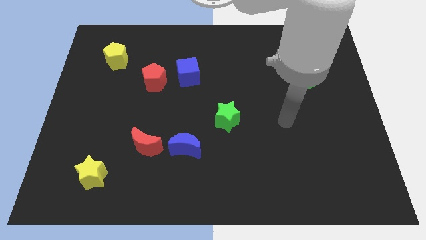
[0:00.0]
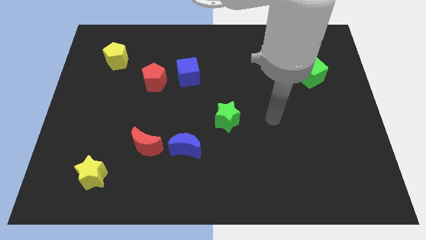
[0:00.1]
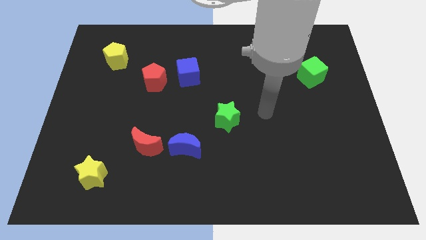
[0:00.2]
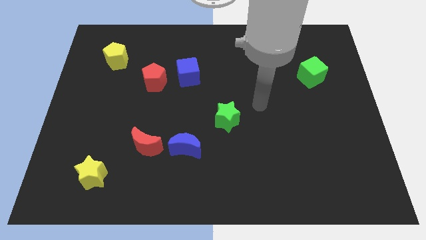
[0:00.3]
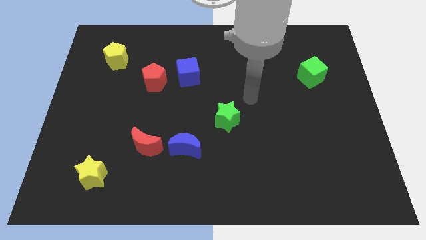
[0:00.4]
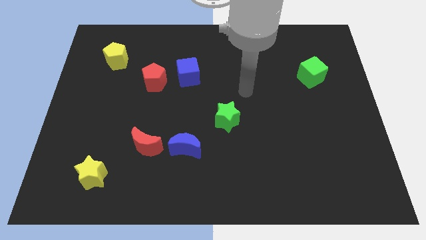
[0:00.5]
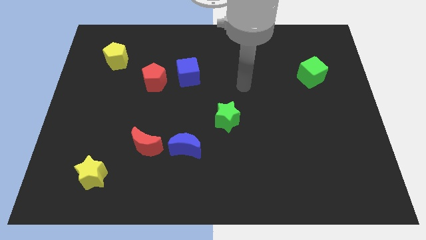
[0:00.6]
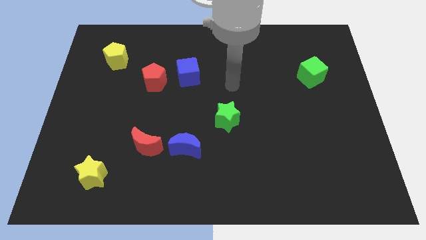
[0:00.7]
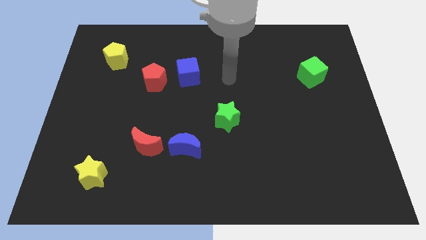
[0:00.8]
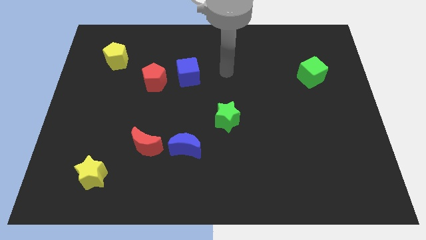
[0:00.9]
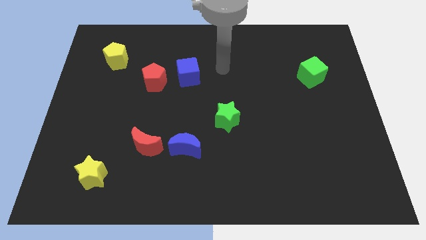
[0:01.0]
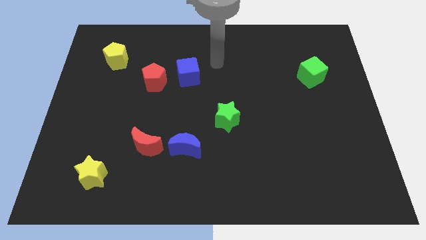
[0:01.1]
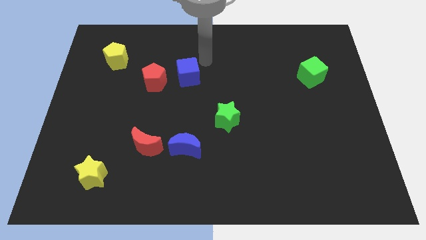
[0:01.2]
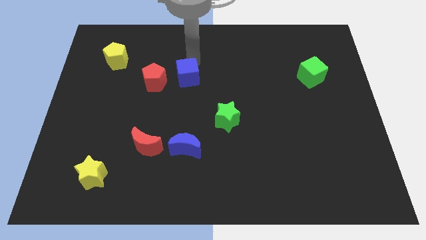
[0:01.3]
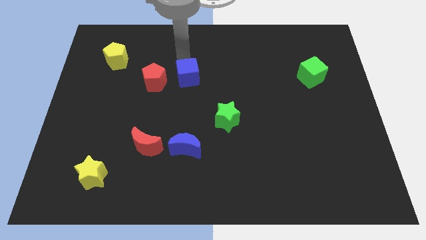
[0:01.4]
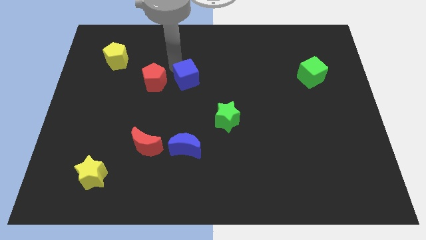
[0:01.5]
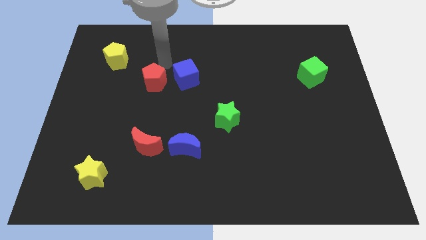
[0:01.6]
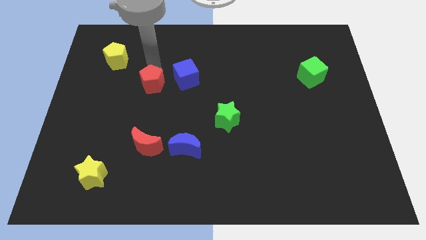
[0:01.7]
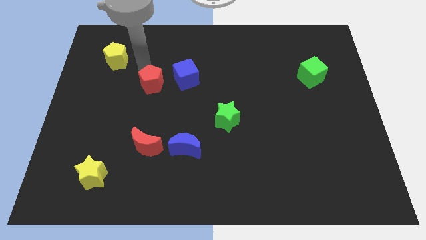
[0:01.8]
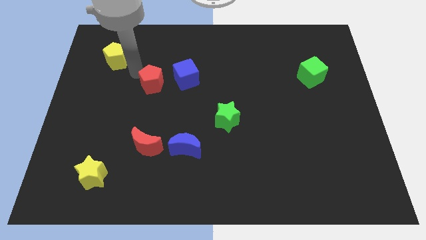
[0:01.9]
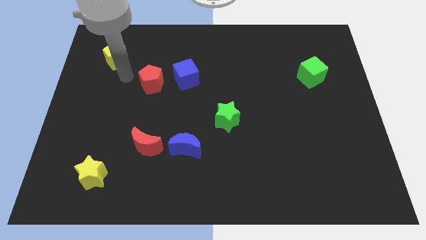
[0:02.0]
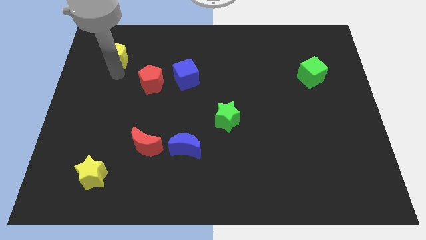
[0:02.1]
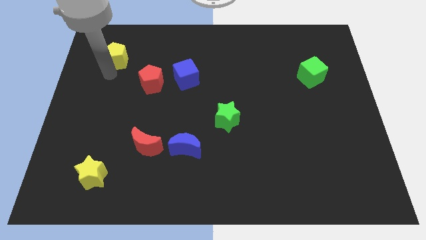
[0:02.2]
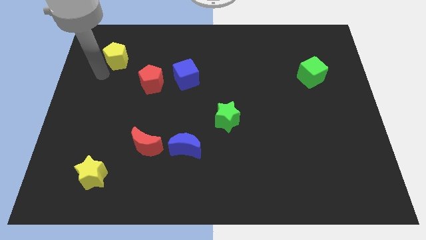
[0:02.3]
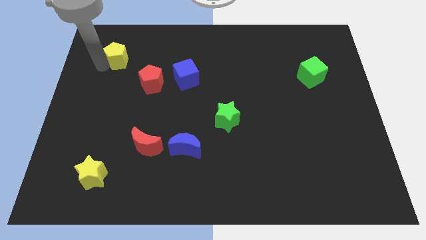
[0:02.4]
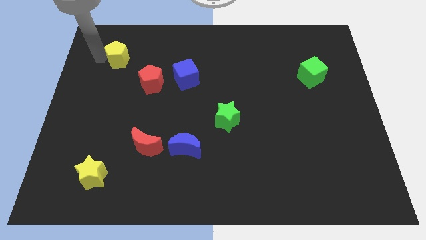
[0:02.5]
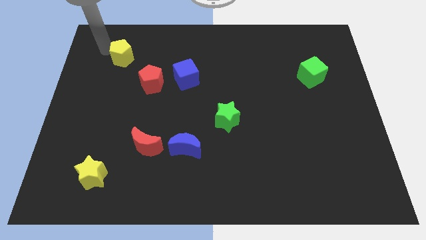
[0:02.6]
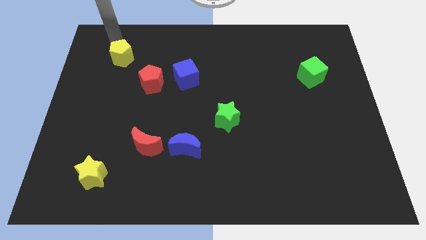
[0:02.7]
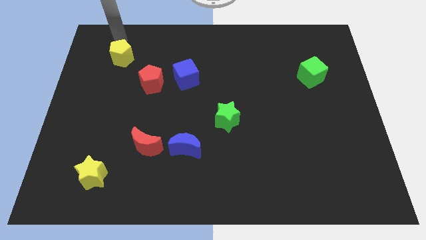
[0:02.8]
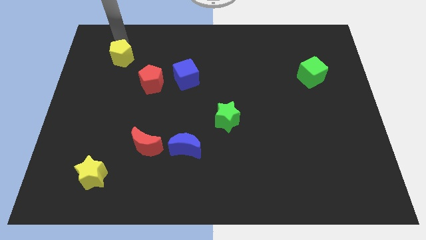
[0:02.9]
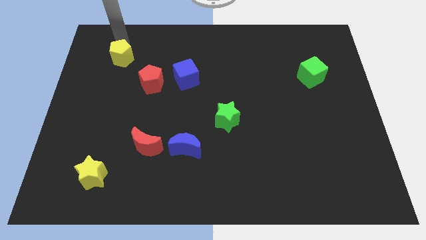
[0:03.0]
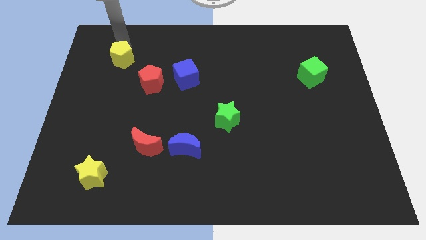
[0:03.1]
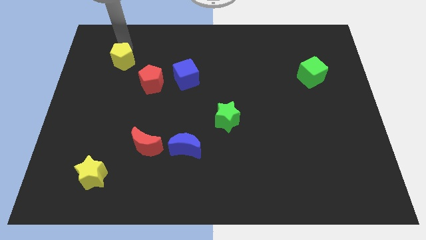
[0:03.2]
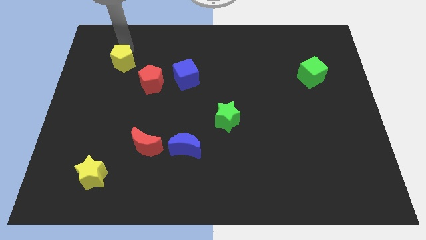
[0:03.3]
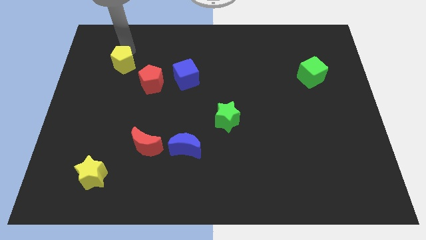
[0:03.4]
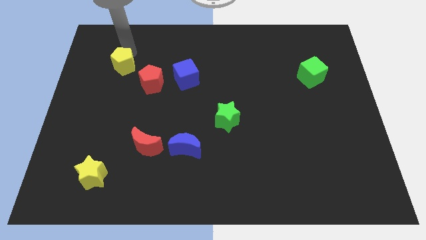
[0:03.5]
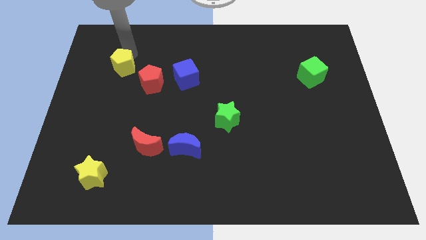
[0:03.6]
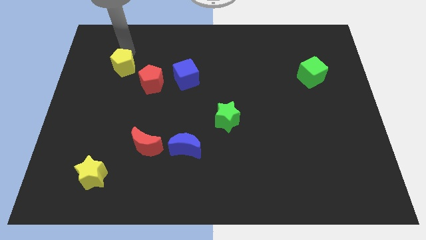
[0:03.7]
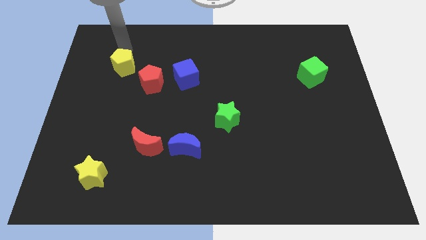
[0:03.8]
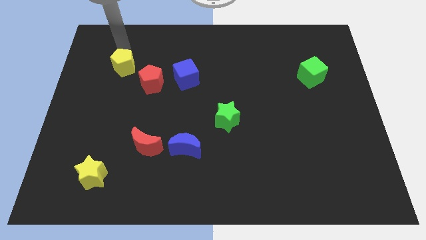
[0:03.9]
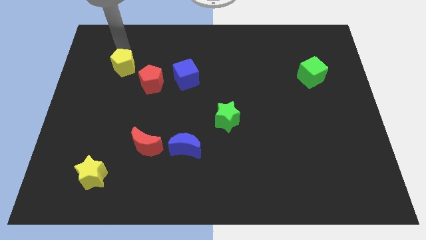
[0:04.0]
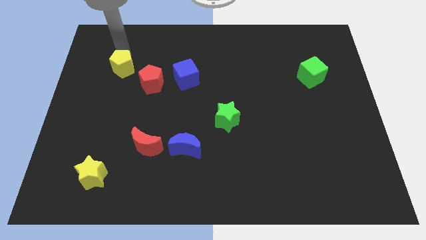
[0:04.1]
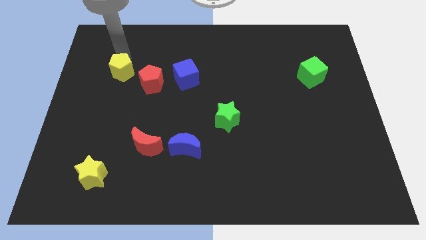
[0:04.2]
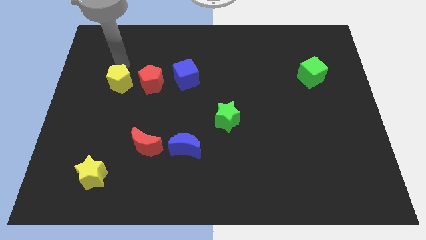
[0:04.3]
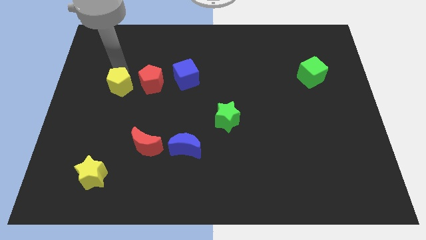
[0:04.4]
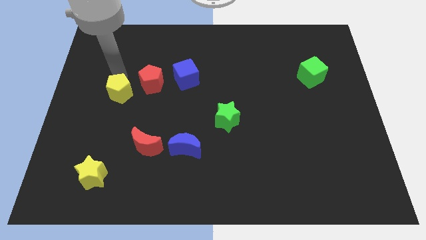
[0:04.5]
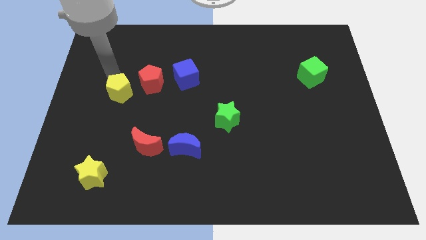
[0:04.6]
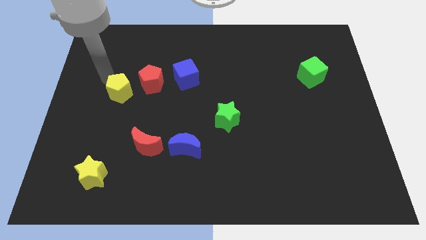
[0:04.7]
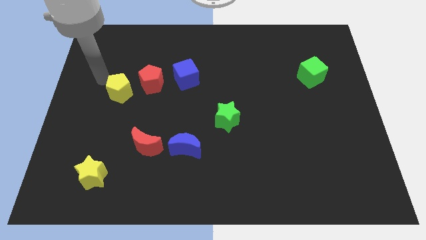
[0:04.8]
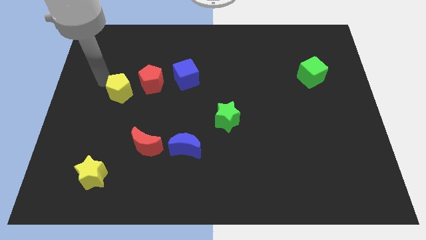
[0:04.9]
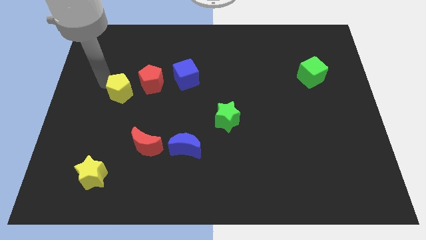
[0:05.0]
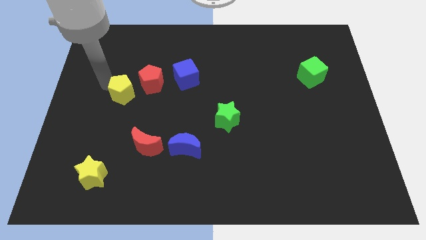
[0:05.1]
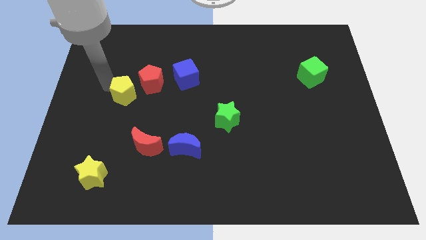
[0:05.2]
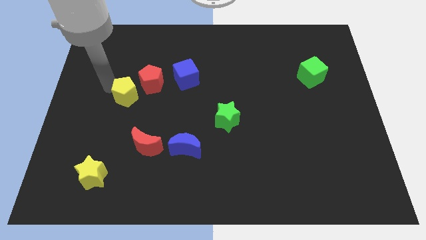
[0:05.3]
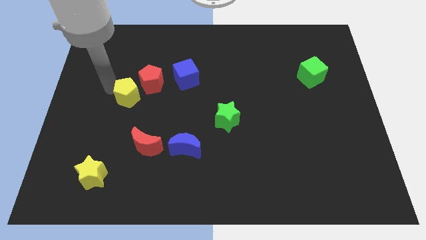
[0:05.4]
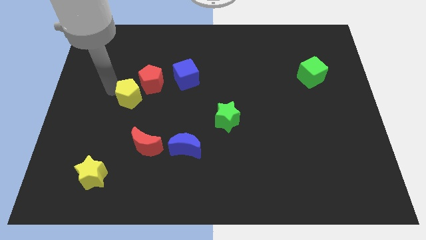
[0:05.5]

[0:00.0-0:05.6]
slide the yellow pentagon below the red pentagon

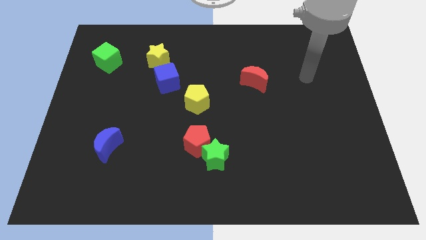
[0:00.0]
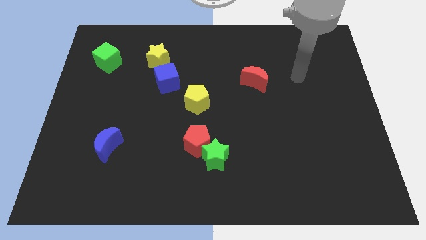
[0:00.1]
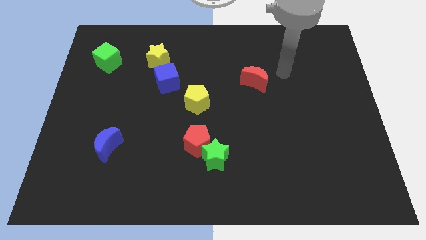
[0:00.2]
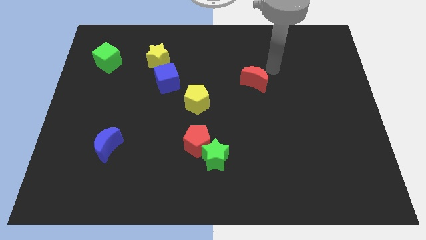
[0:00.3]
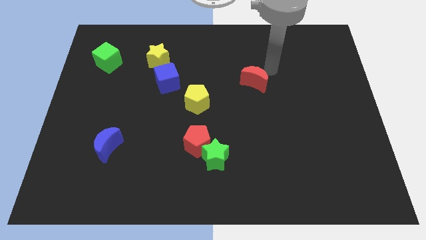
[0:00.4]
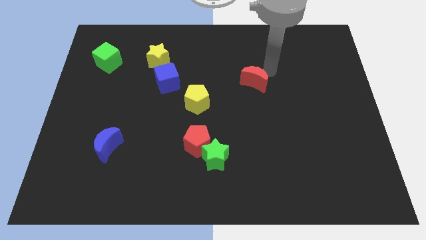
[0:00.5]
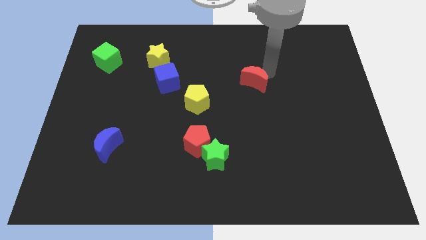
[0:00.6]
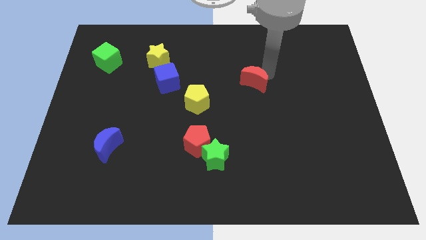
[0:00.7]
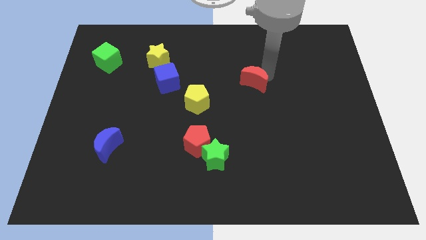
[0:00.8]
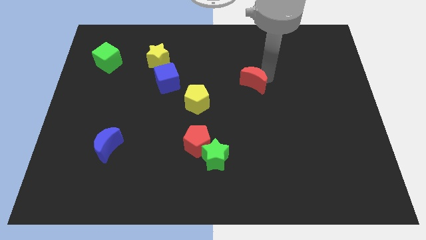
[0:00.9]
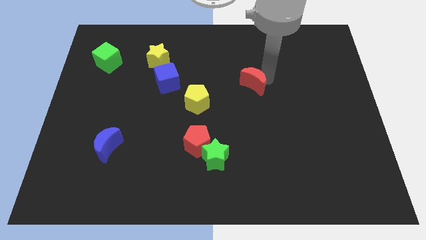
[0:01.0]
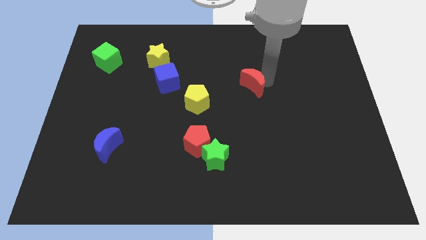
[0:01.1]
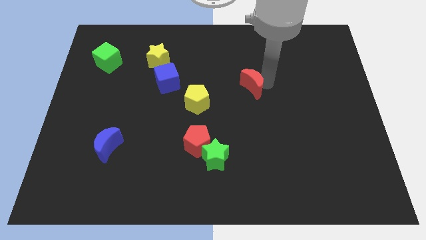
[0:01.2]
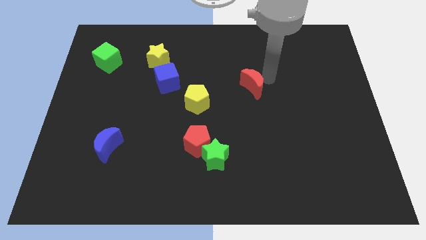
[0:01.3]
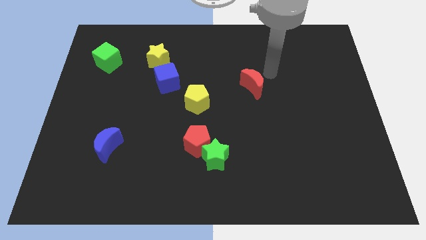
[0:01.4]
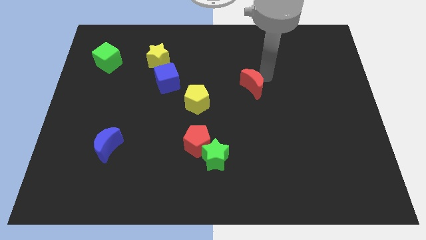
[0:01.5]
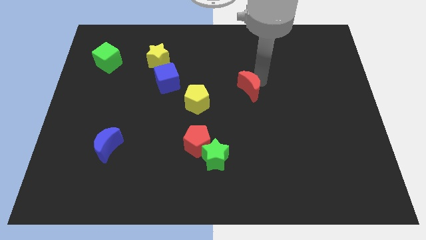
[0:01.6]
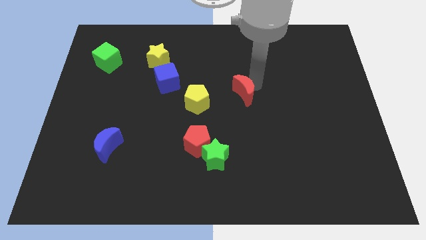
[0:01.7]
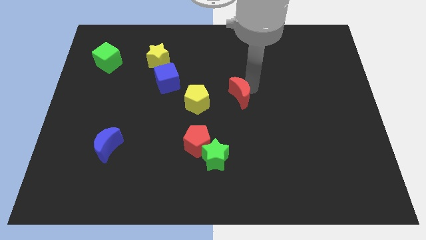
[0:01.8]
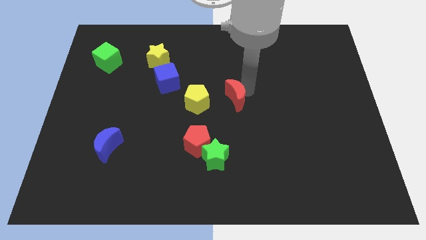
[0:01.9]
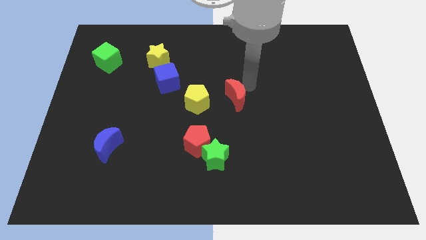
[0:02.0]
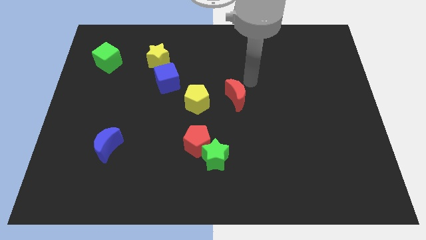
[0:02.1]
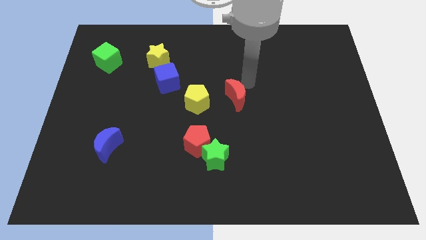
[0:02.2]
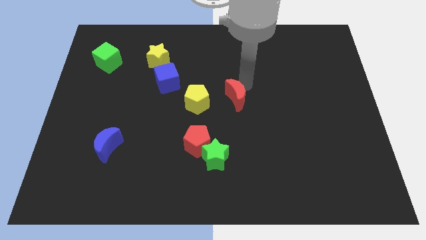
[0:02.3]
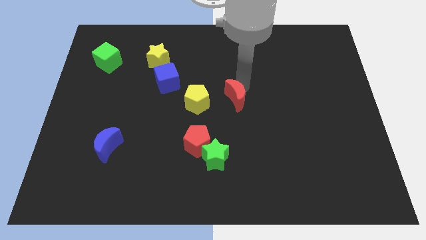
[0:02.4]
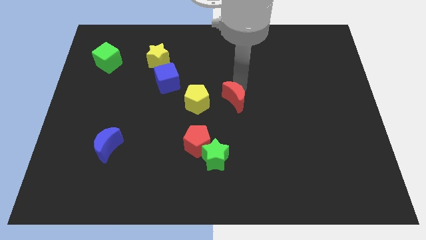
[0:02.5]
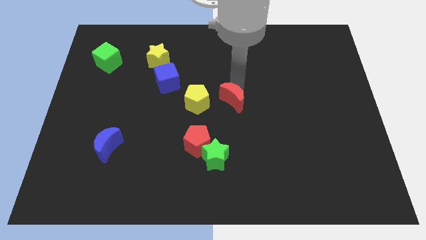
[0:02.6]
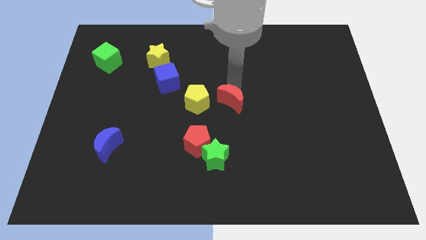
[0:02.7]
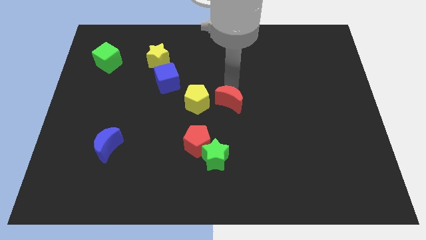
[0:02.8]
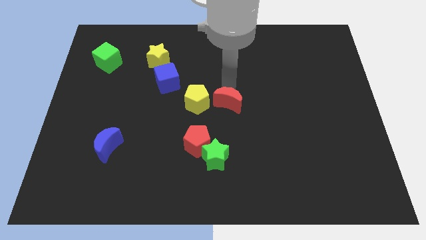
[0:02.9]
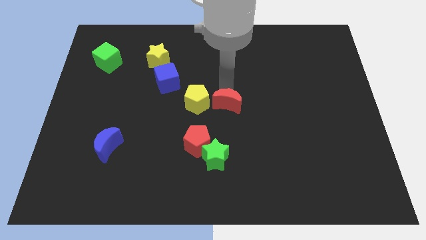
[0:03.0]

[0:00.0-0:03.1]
put the red moon to the bottom right side of the yellow pentagon
